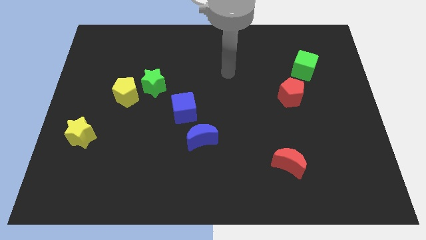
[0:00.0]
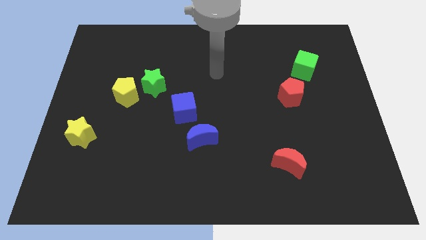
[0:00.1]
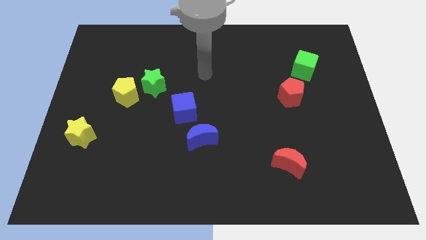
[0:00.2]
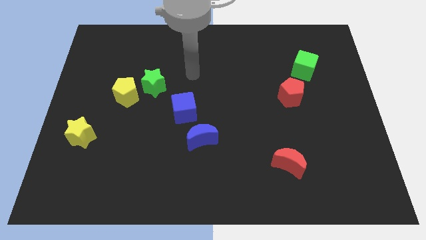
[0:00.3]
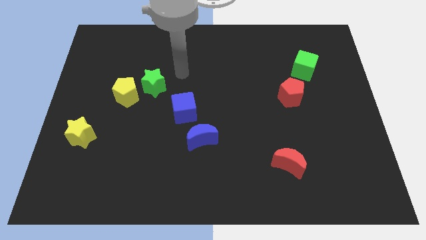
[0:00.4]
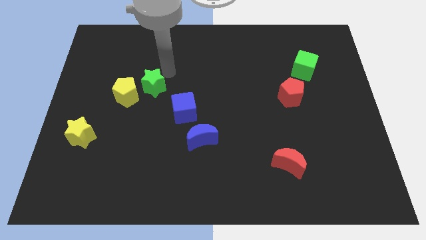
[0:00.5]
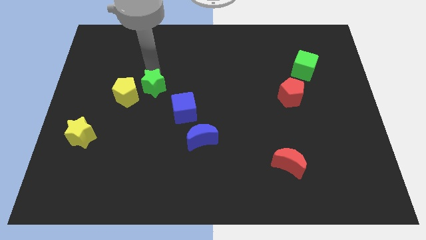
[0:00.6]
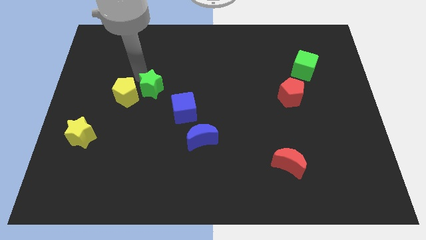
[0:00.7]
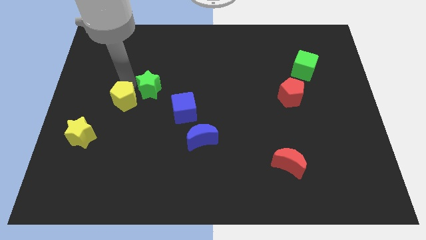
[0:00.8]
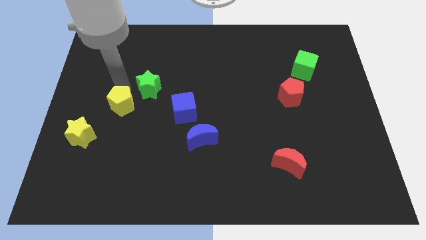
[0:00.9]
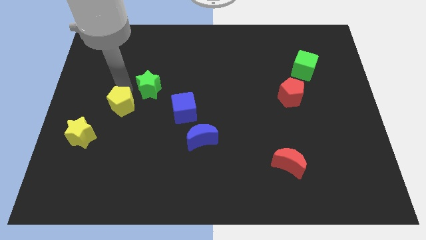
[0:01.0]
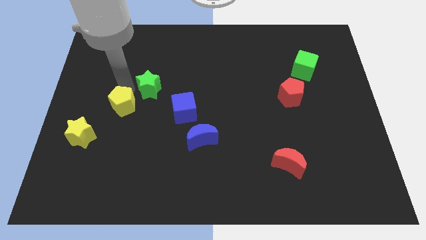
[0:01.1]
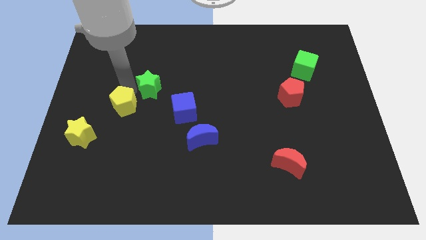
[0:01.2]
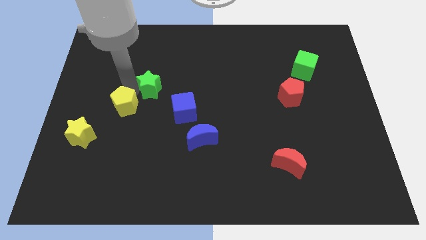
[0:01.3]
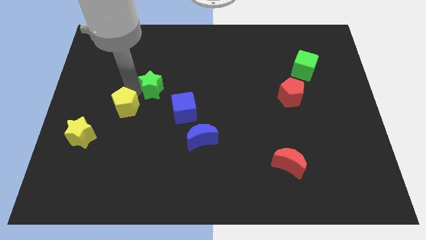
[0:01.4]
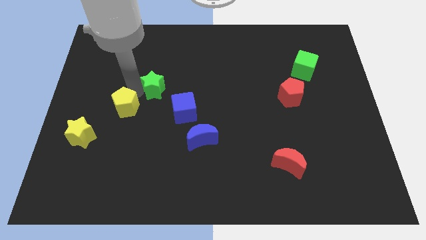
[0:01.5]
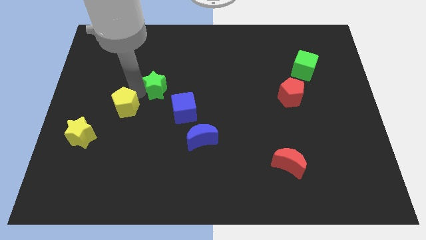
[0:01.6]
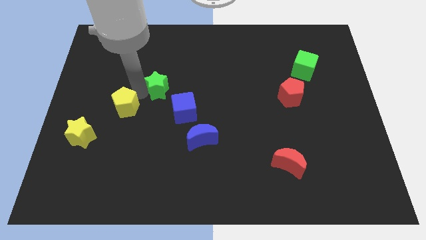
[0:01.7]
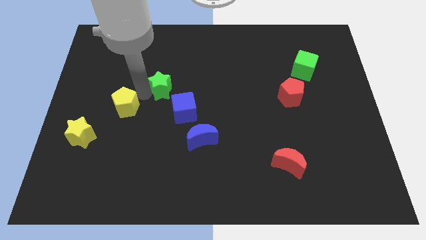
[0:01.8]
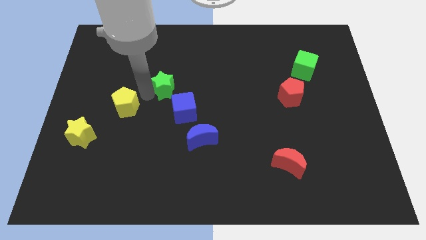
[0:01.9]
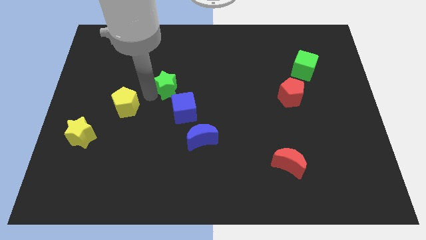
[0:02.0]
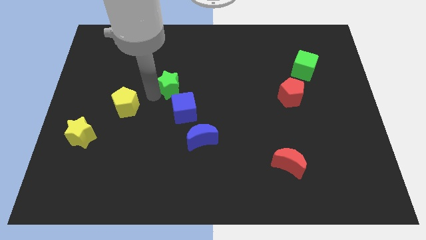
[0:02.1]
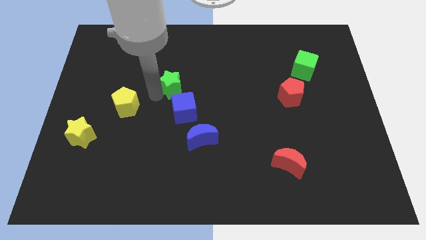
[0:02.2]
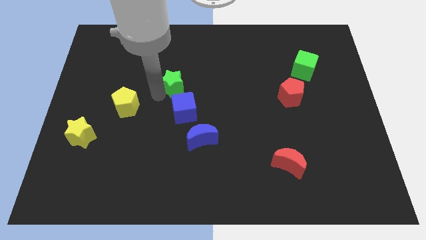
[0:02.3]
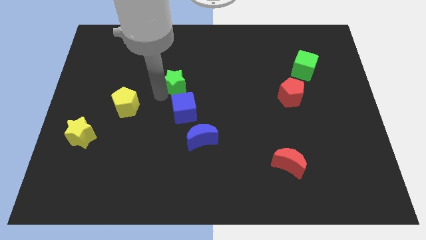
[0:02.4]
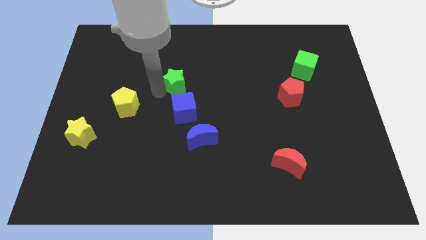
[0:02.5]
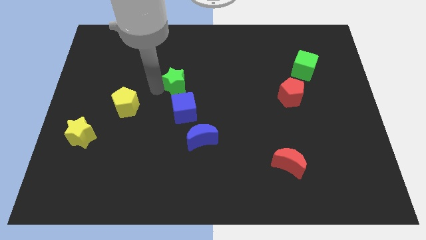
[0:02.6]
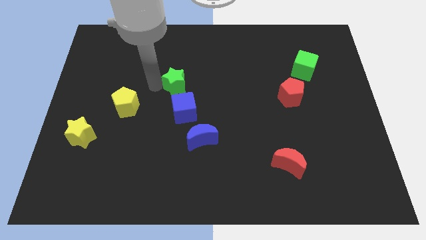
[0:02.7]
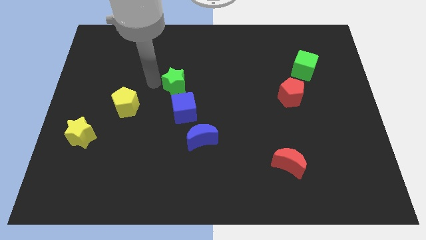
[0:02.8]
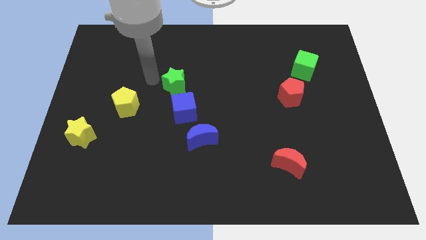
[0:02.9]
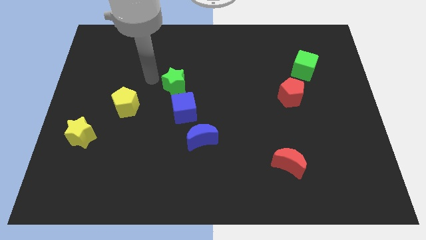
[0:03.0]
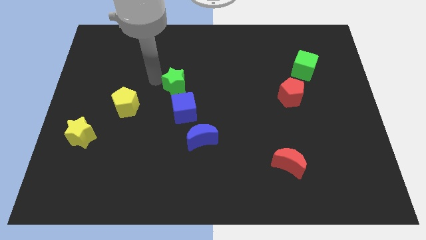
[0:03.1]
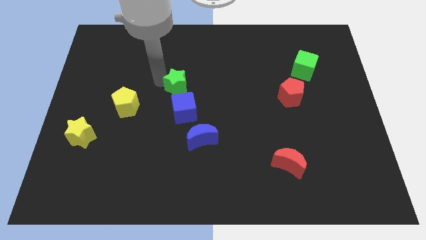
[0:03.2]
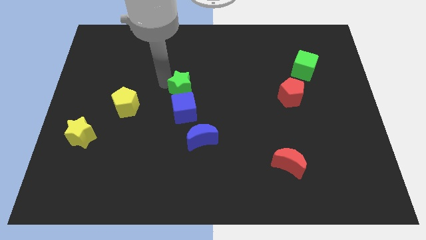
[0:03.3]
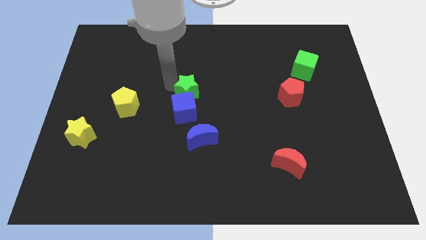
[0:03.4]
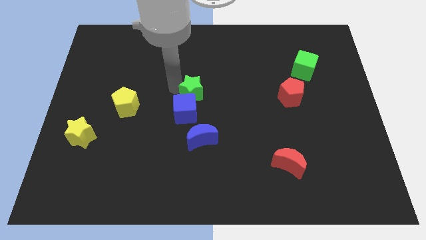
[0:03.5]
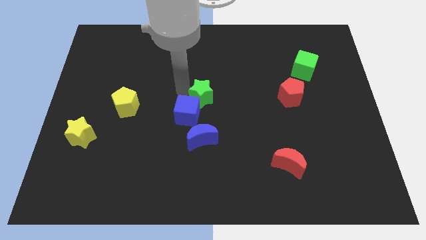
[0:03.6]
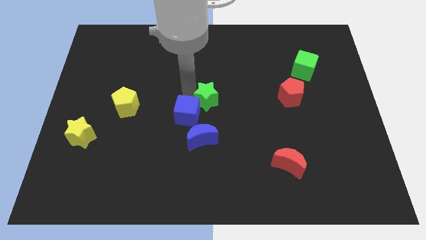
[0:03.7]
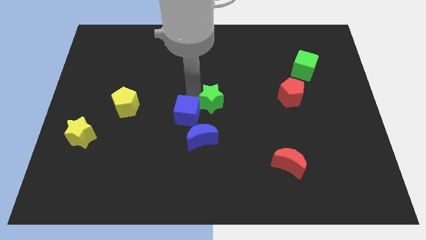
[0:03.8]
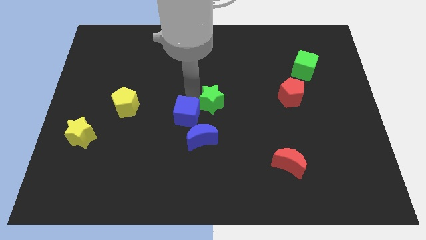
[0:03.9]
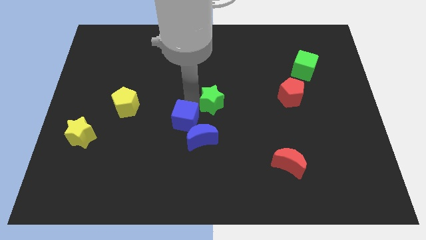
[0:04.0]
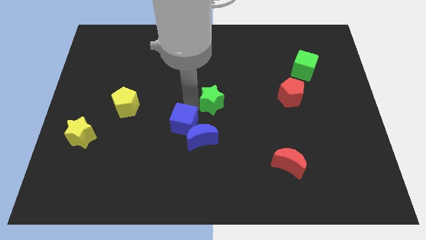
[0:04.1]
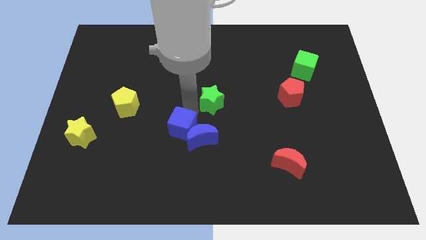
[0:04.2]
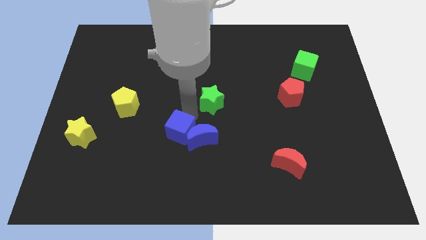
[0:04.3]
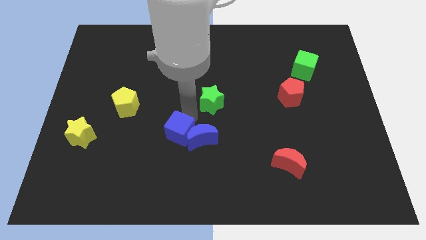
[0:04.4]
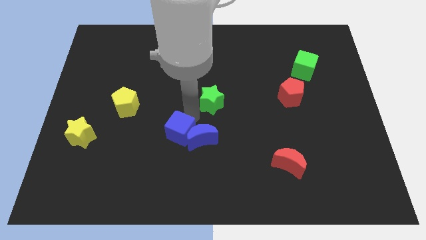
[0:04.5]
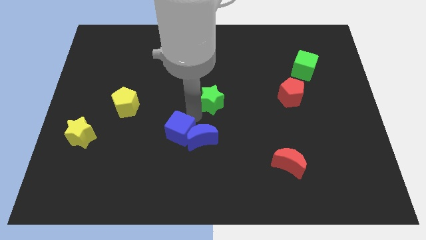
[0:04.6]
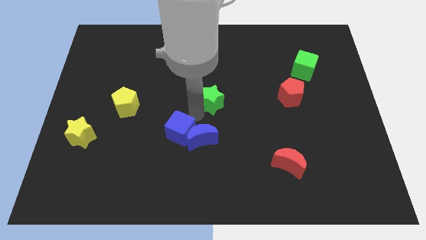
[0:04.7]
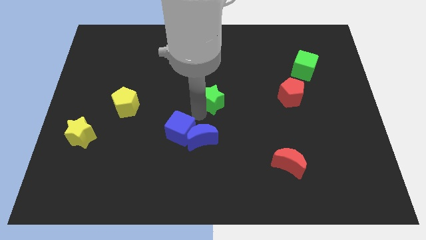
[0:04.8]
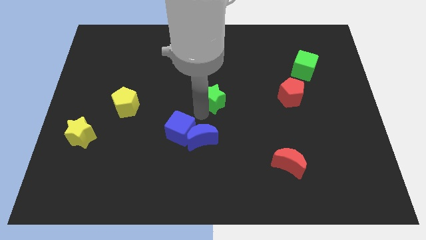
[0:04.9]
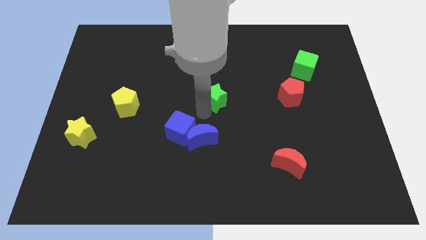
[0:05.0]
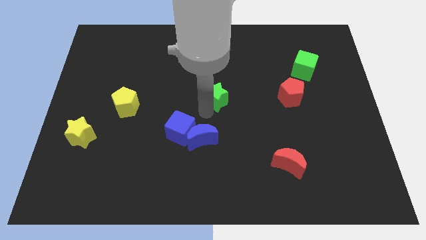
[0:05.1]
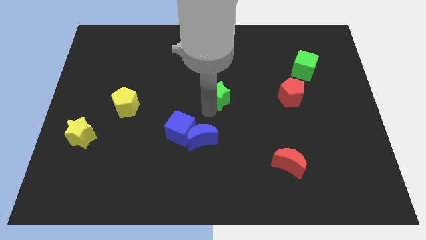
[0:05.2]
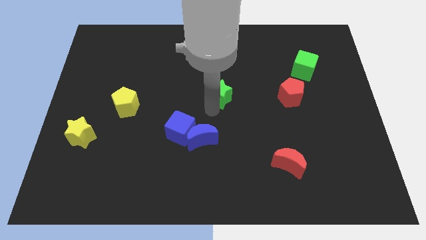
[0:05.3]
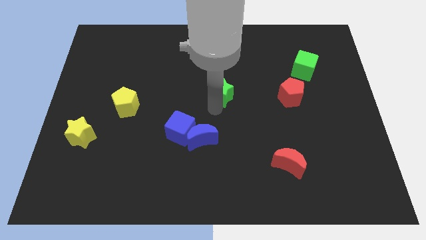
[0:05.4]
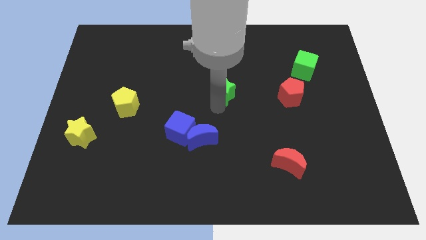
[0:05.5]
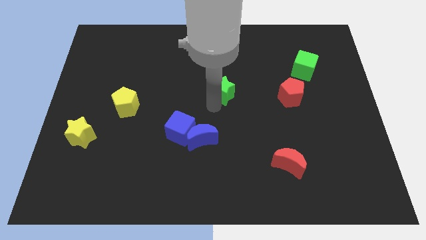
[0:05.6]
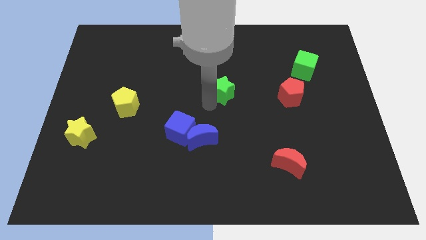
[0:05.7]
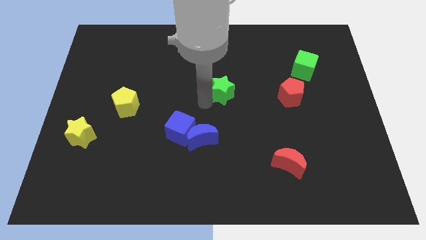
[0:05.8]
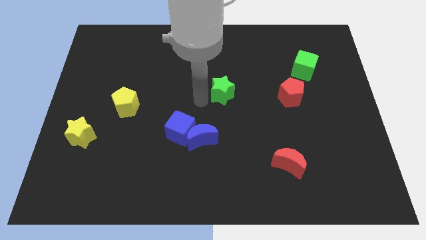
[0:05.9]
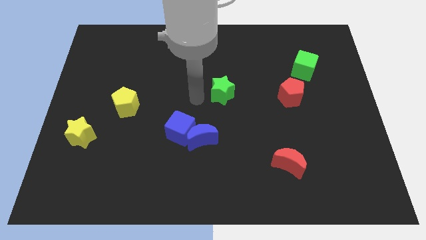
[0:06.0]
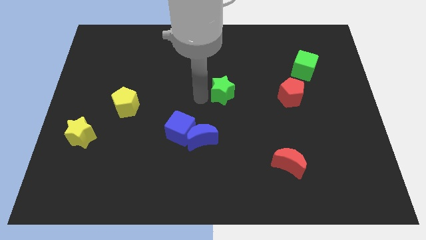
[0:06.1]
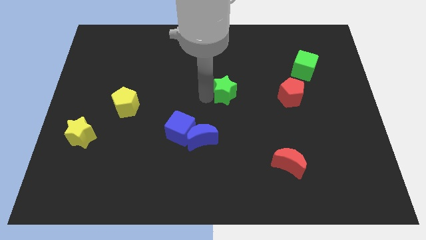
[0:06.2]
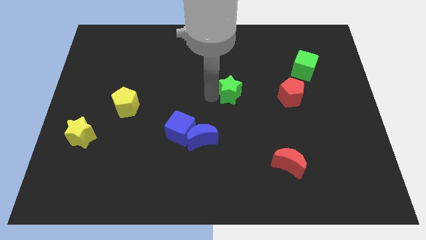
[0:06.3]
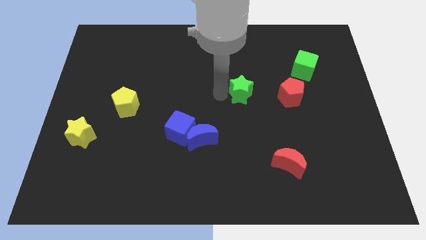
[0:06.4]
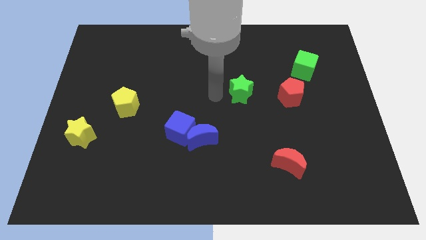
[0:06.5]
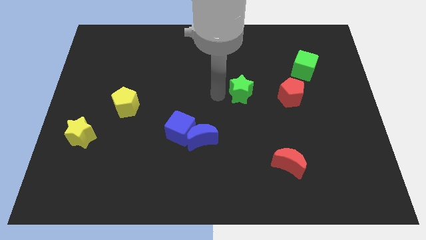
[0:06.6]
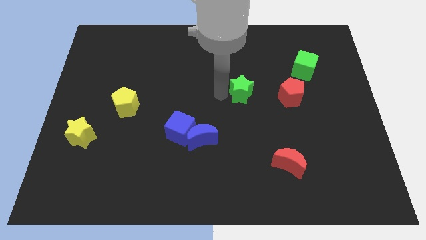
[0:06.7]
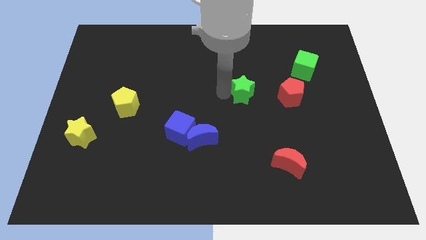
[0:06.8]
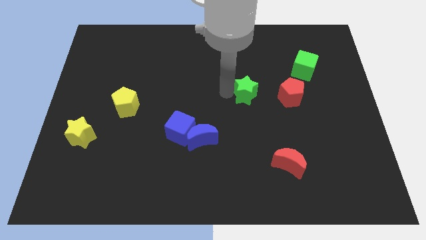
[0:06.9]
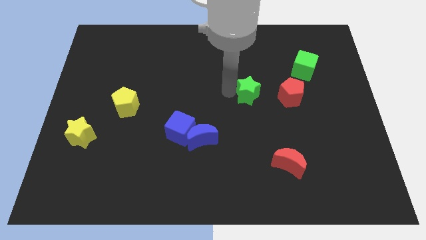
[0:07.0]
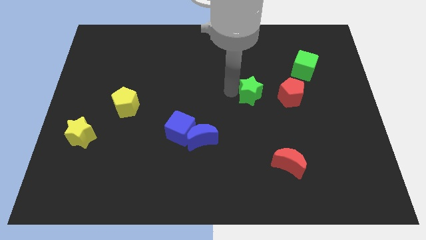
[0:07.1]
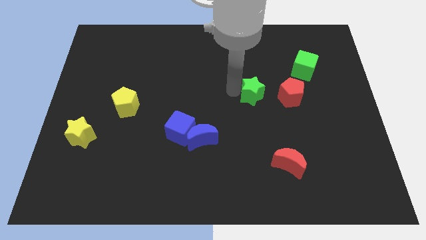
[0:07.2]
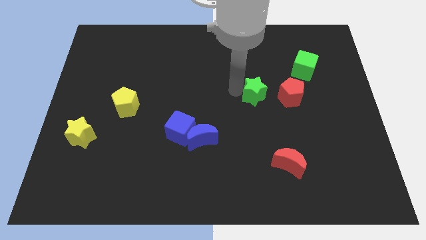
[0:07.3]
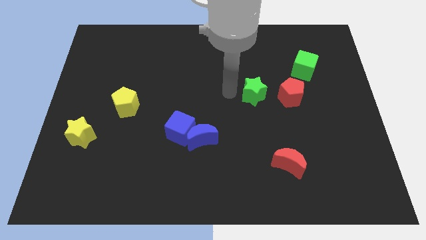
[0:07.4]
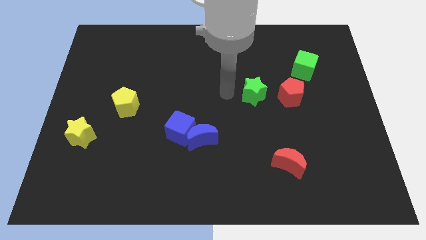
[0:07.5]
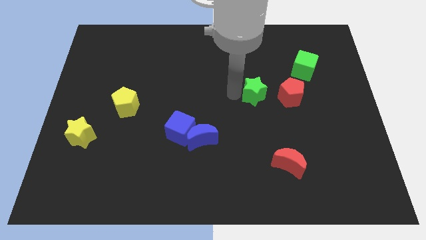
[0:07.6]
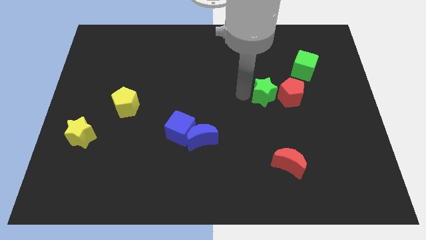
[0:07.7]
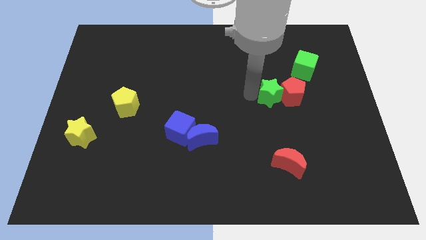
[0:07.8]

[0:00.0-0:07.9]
push the green star close to the red pentagon
